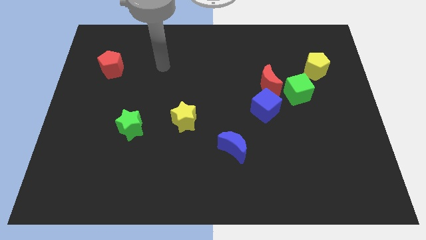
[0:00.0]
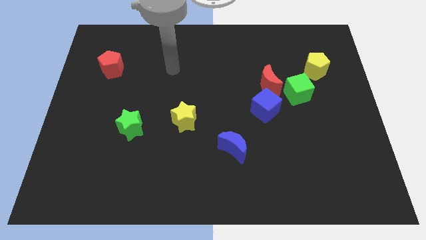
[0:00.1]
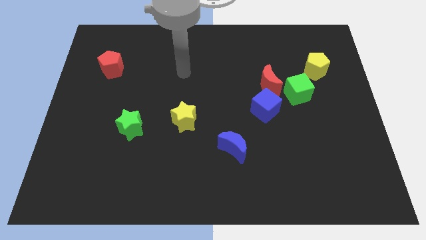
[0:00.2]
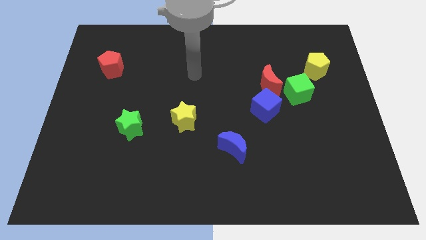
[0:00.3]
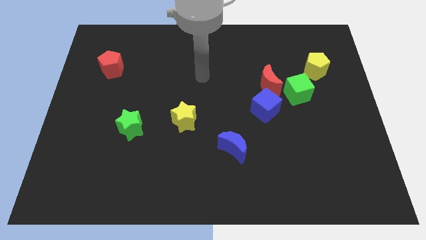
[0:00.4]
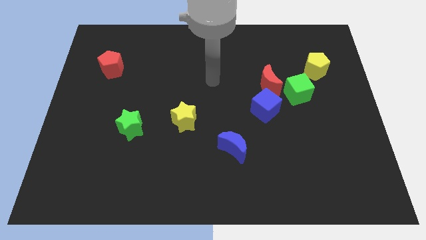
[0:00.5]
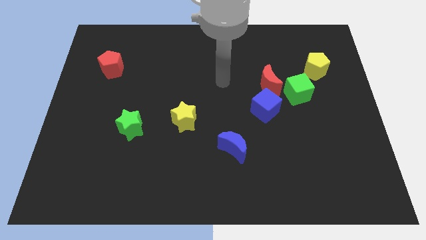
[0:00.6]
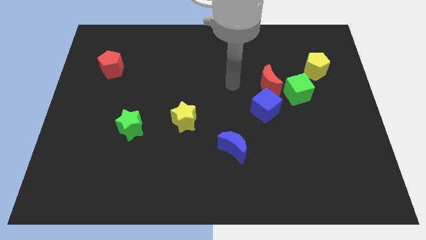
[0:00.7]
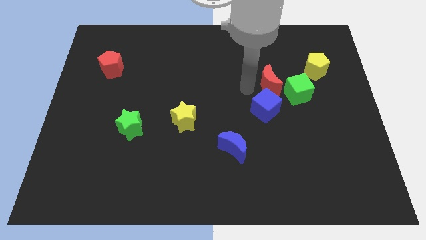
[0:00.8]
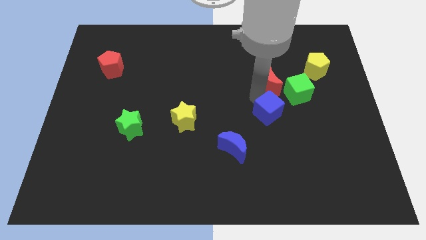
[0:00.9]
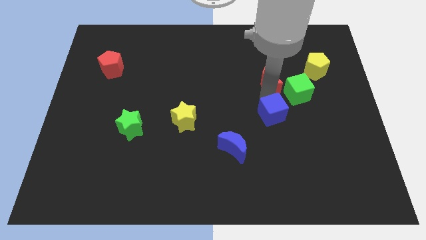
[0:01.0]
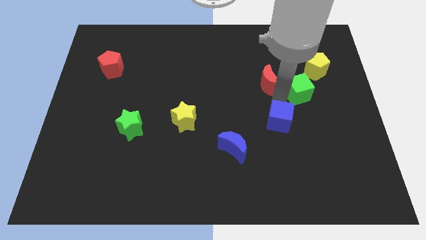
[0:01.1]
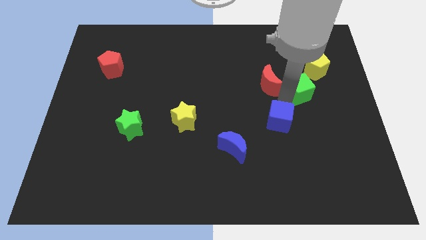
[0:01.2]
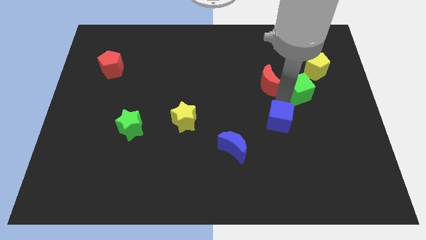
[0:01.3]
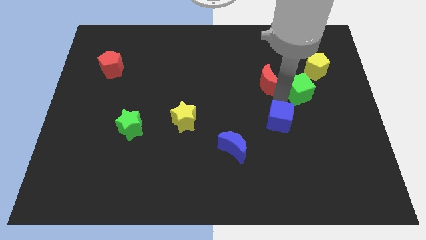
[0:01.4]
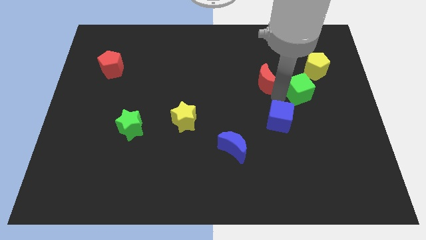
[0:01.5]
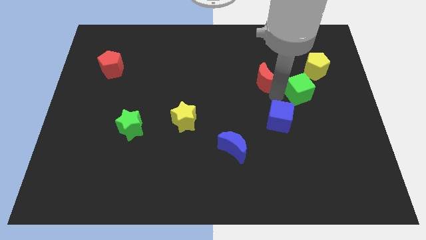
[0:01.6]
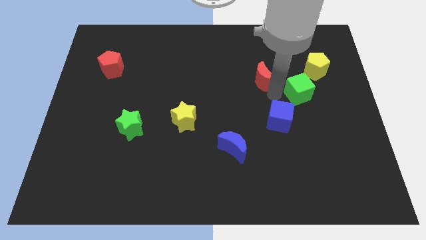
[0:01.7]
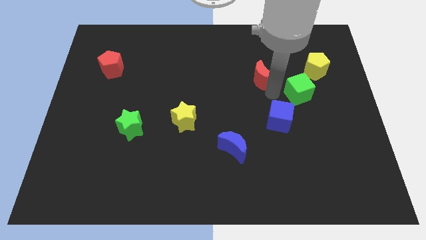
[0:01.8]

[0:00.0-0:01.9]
move the red moon away from the green cube and blue cube

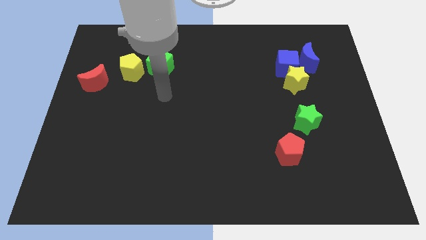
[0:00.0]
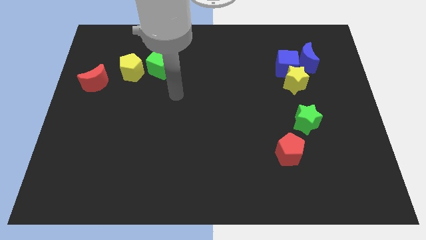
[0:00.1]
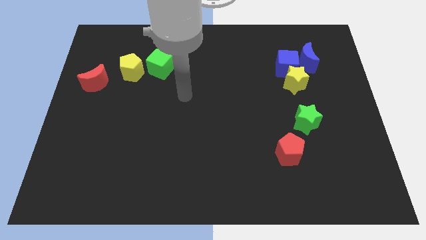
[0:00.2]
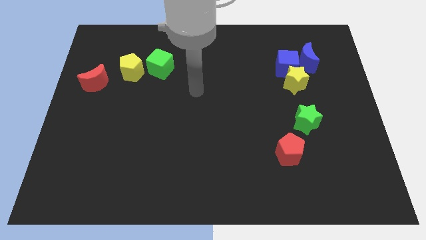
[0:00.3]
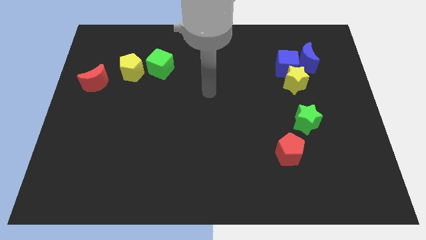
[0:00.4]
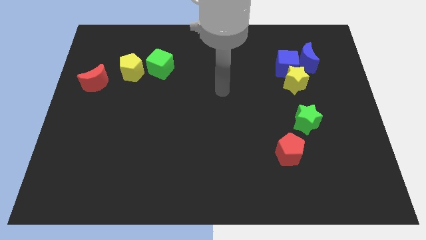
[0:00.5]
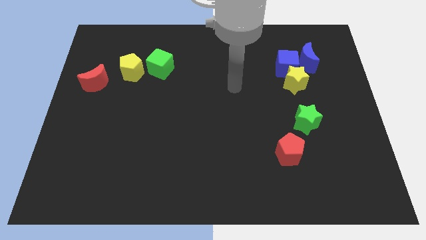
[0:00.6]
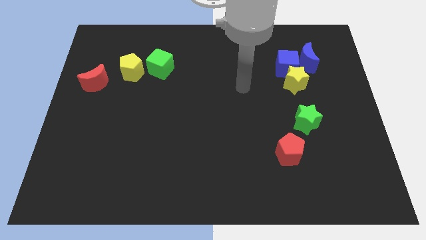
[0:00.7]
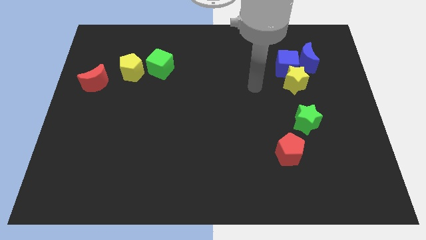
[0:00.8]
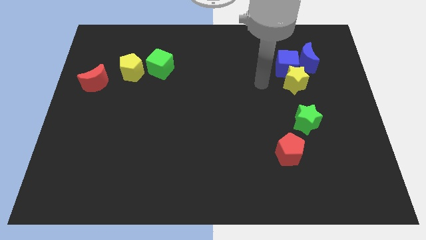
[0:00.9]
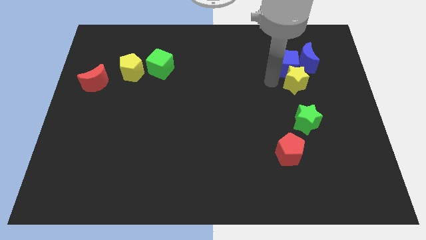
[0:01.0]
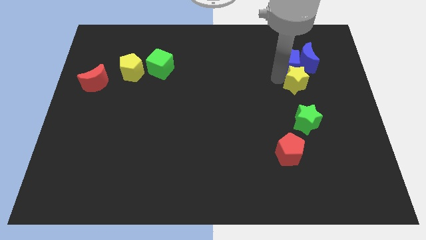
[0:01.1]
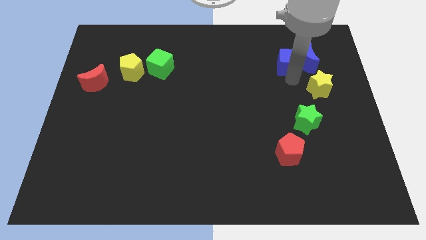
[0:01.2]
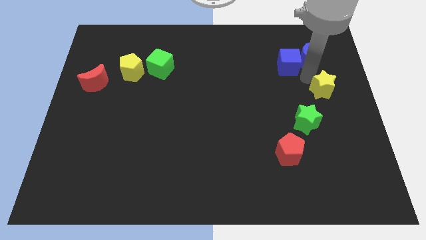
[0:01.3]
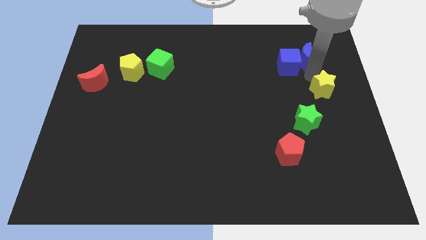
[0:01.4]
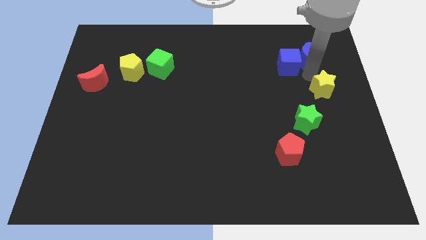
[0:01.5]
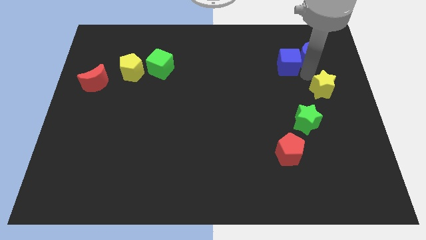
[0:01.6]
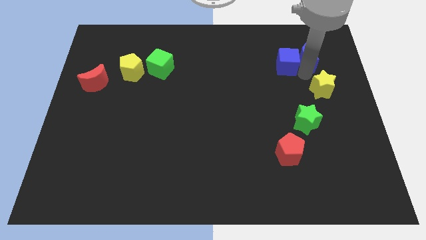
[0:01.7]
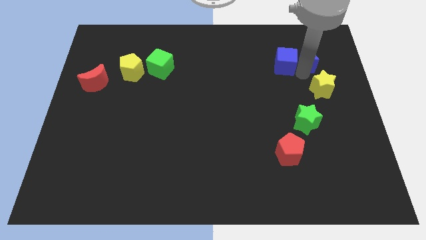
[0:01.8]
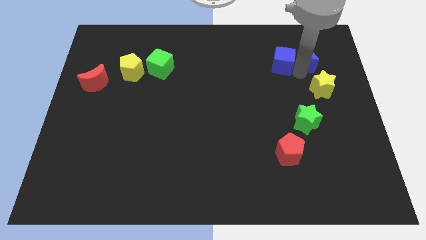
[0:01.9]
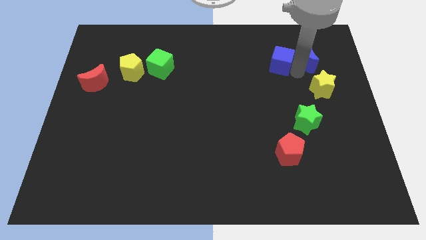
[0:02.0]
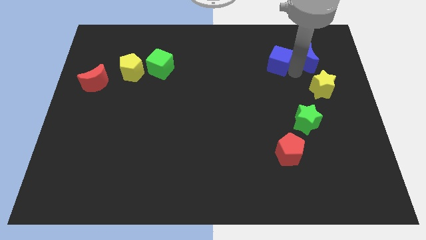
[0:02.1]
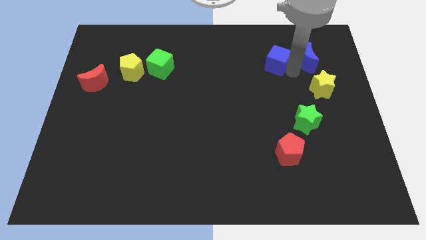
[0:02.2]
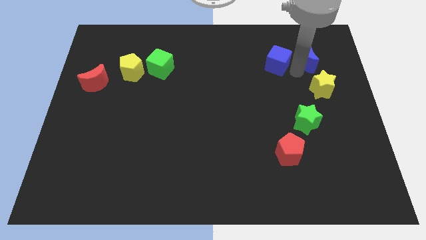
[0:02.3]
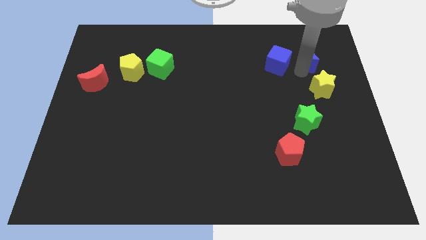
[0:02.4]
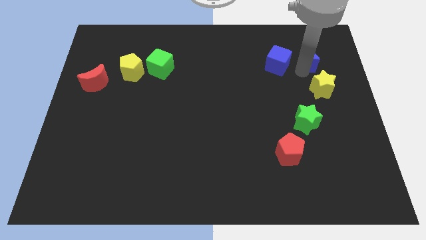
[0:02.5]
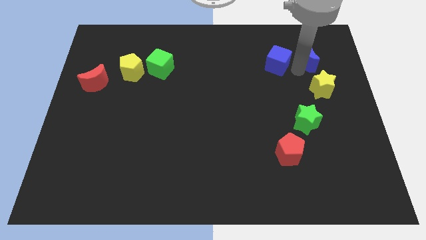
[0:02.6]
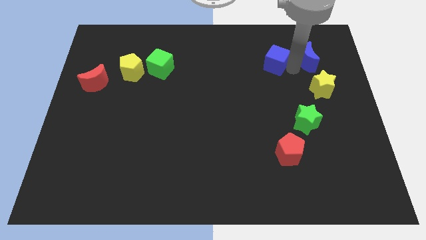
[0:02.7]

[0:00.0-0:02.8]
separate the blue cube from the yellow star and blue moon

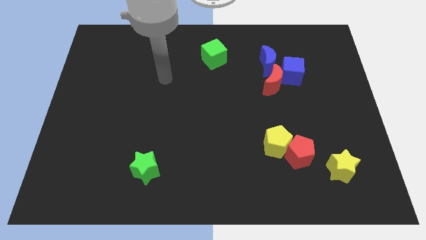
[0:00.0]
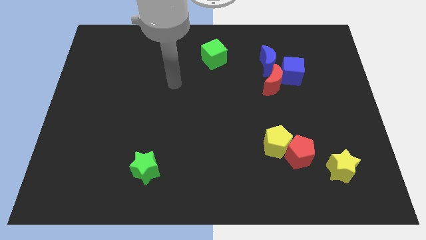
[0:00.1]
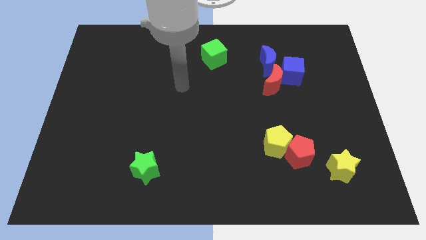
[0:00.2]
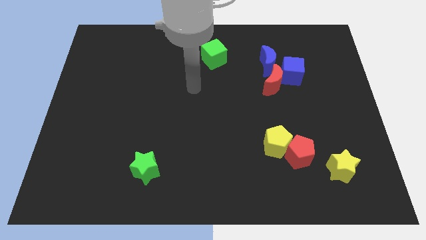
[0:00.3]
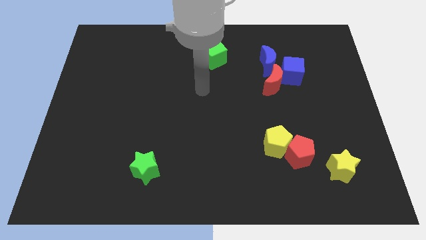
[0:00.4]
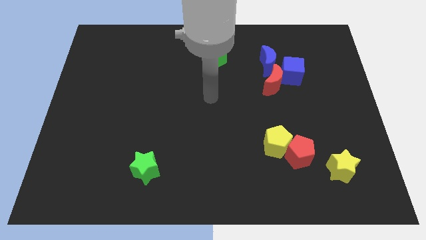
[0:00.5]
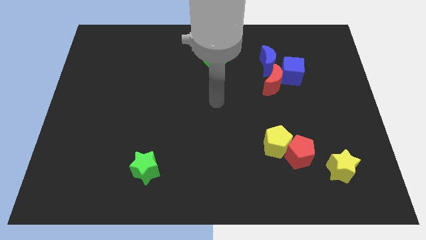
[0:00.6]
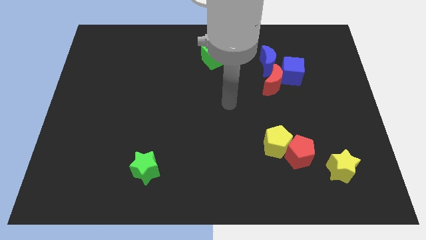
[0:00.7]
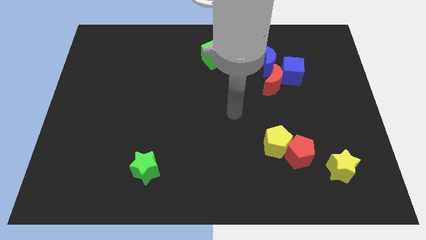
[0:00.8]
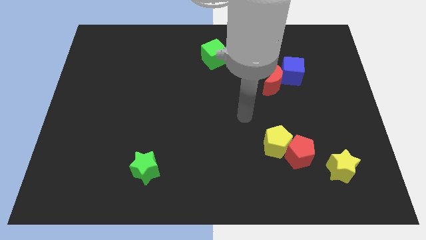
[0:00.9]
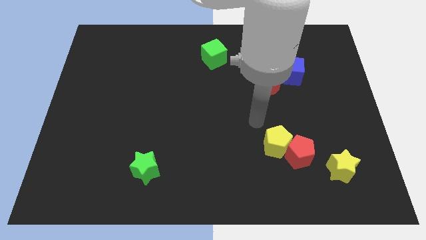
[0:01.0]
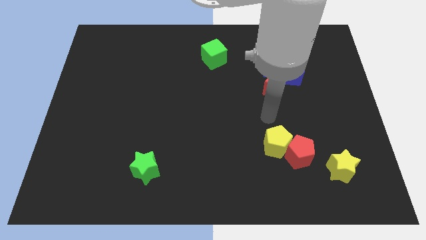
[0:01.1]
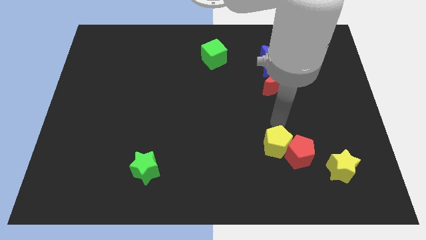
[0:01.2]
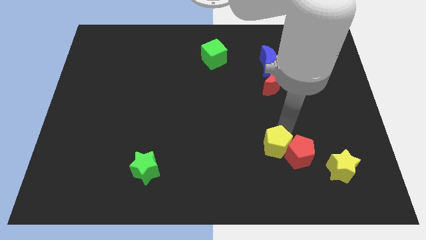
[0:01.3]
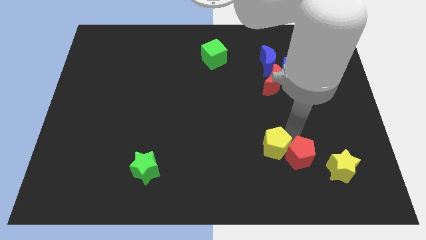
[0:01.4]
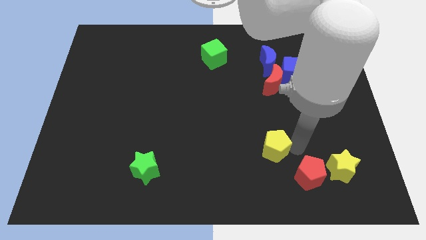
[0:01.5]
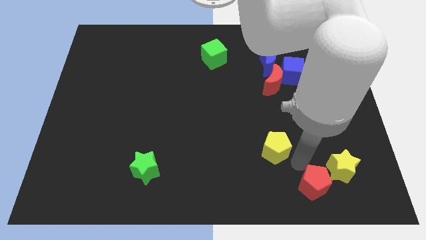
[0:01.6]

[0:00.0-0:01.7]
separate the yellow pentagon from the red pentagon

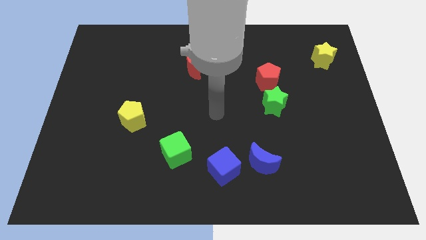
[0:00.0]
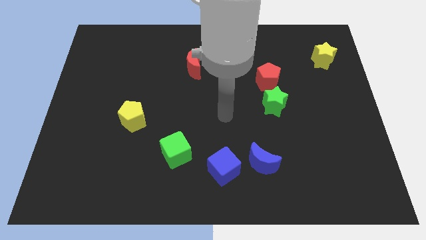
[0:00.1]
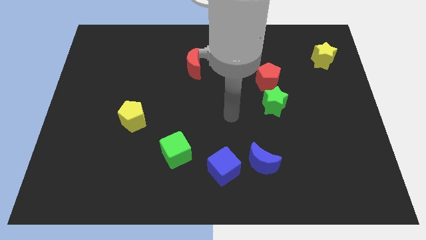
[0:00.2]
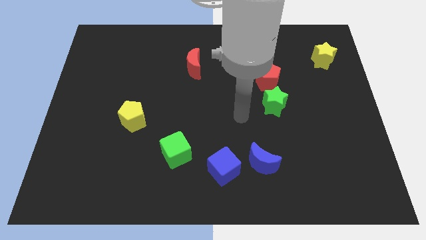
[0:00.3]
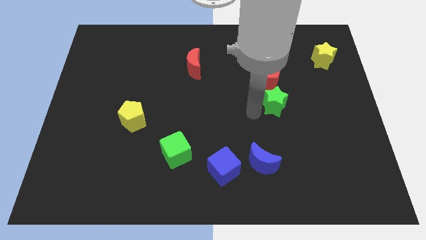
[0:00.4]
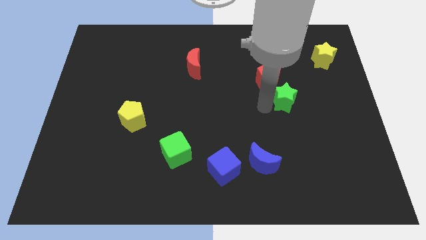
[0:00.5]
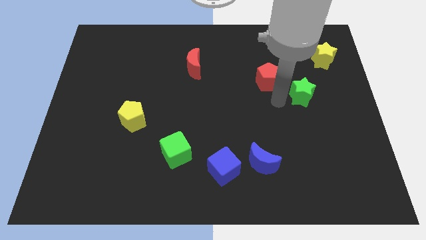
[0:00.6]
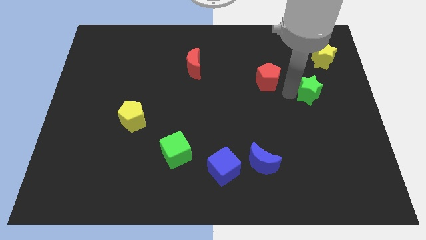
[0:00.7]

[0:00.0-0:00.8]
move the red pentagon away from the green star

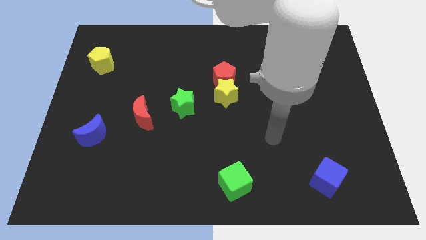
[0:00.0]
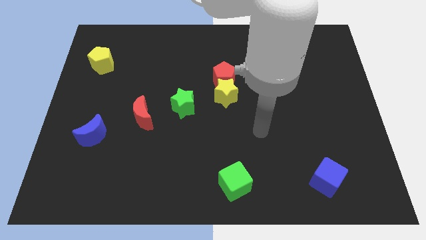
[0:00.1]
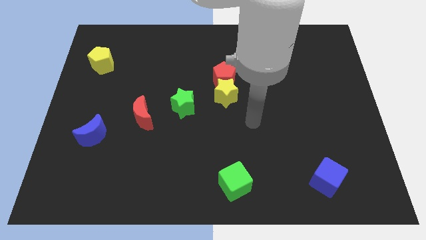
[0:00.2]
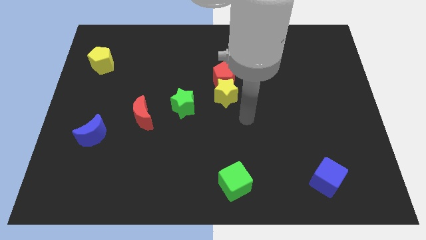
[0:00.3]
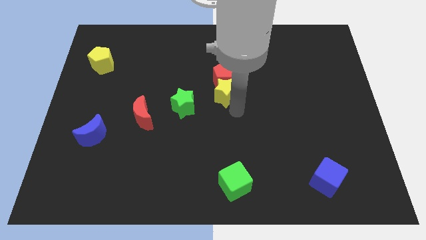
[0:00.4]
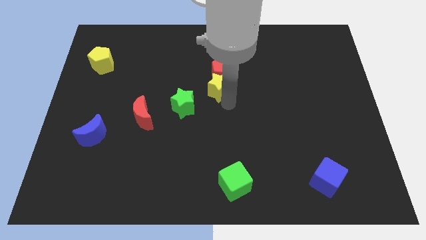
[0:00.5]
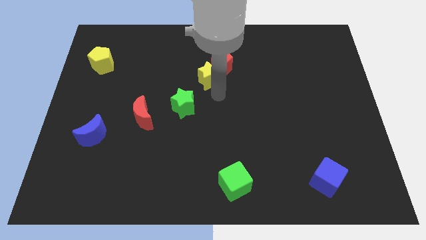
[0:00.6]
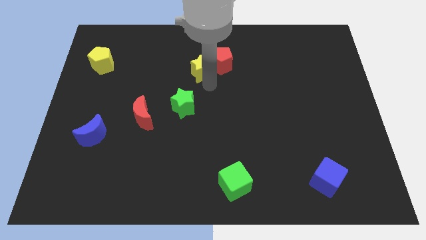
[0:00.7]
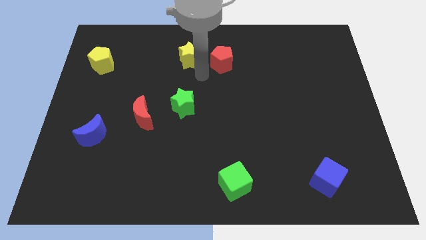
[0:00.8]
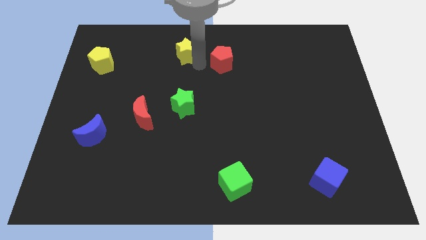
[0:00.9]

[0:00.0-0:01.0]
separate the red pentagon from the yellow star

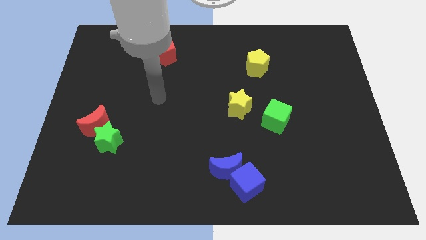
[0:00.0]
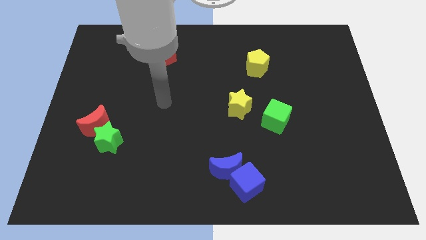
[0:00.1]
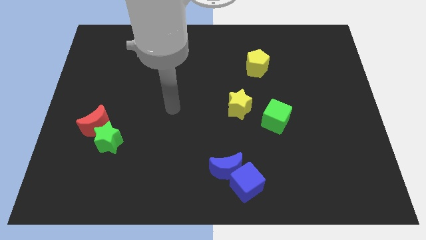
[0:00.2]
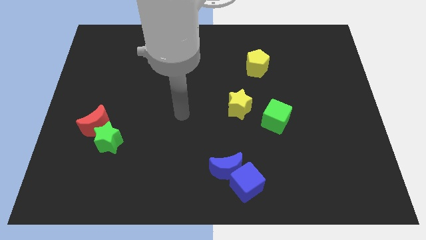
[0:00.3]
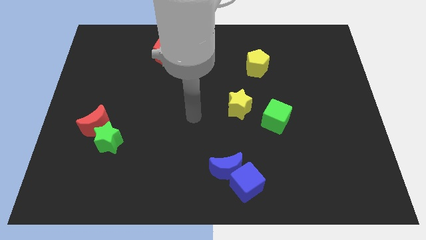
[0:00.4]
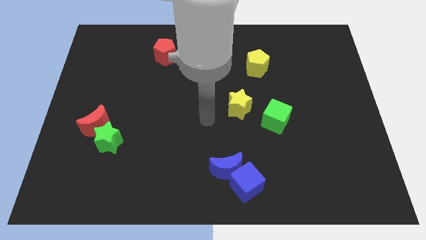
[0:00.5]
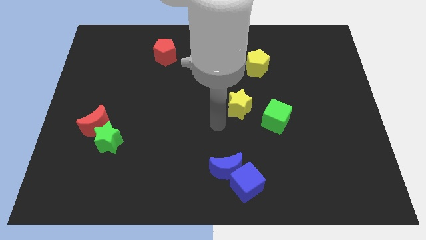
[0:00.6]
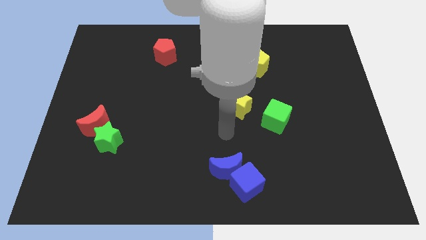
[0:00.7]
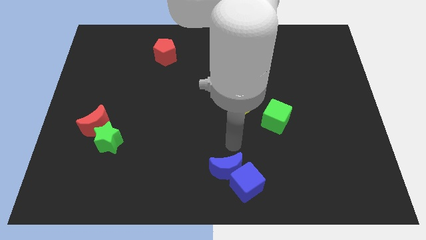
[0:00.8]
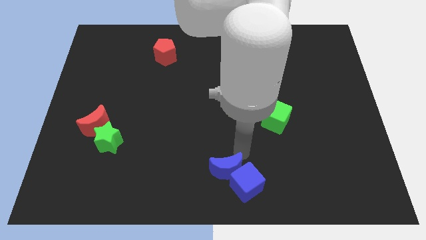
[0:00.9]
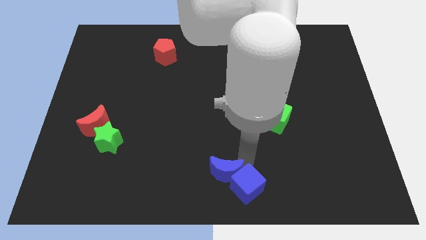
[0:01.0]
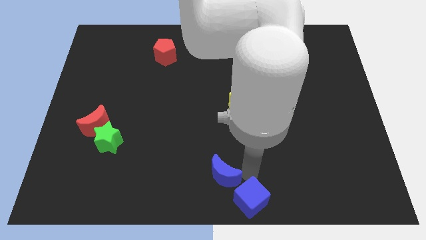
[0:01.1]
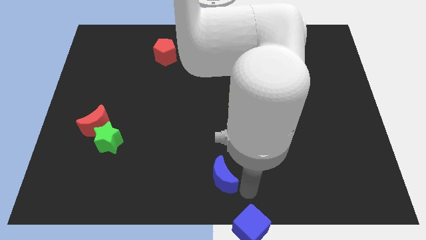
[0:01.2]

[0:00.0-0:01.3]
move the blue moon away from the blue cube
